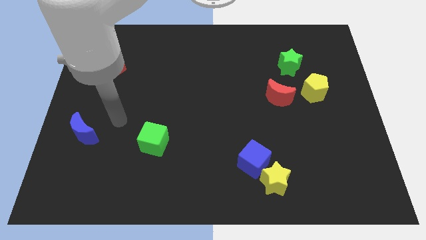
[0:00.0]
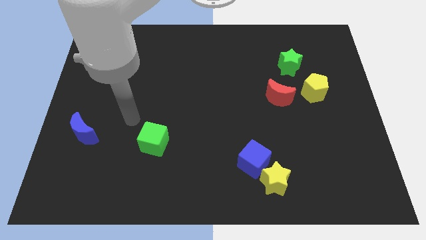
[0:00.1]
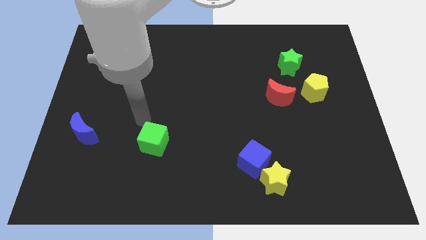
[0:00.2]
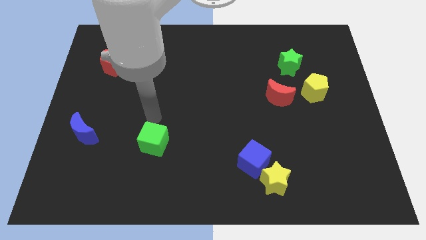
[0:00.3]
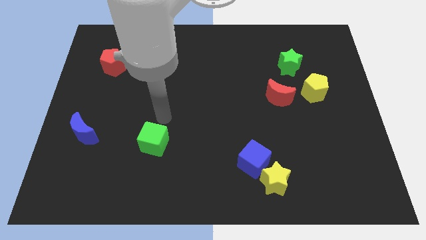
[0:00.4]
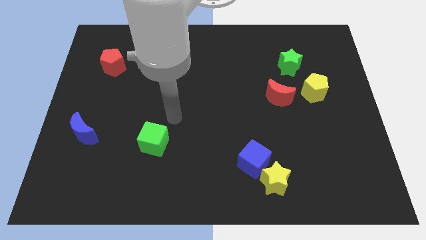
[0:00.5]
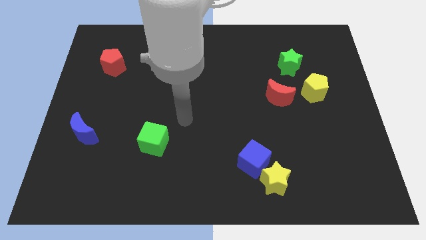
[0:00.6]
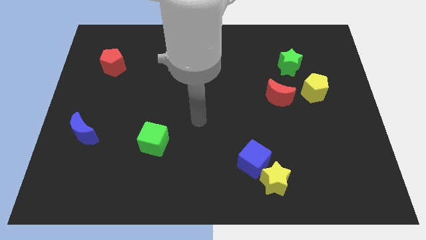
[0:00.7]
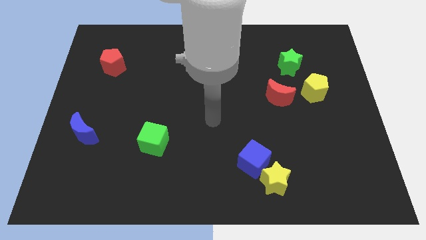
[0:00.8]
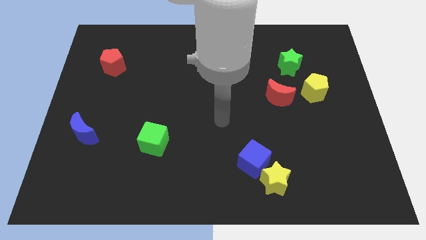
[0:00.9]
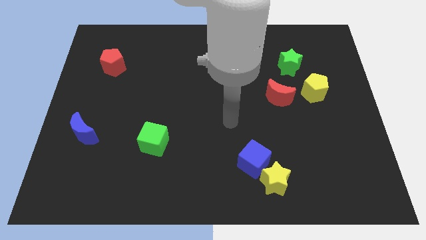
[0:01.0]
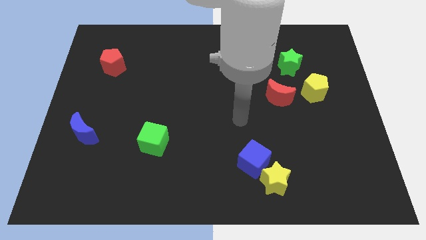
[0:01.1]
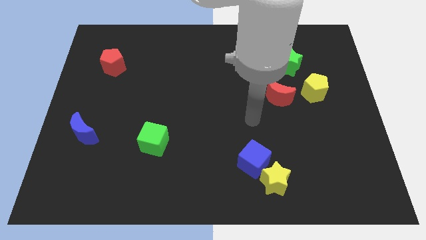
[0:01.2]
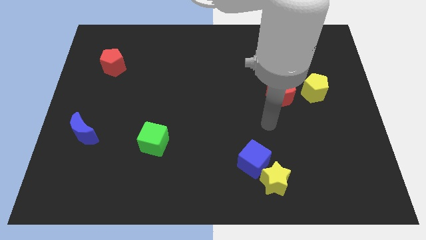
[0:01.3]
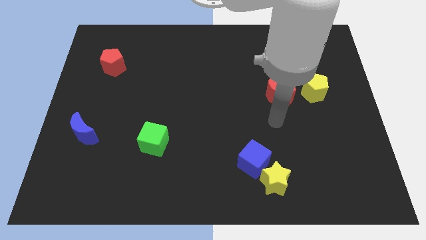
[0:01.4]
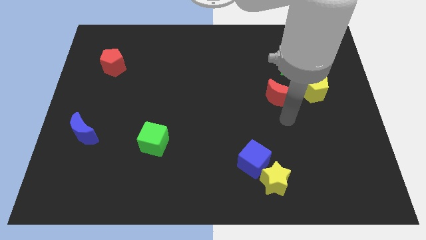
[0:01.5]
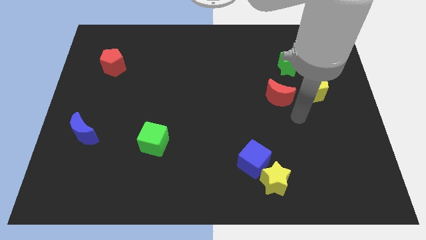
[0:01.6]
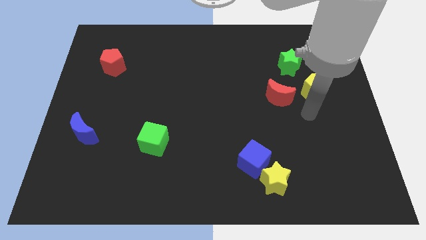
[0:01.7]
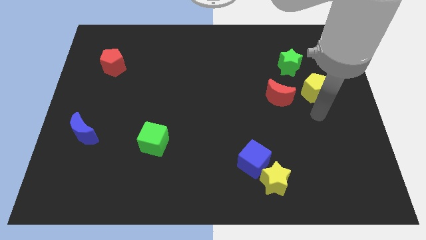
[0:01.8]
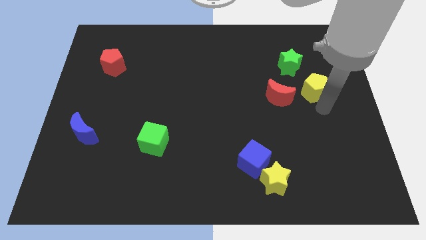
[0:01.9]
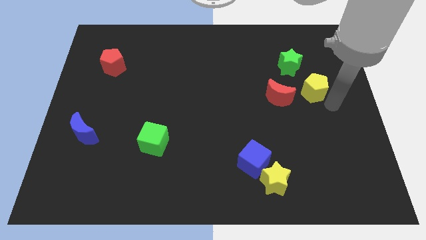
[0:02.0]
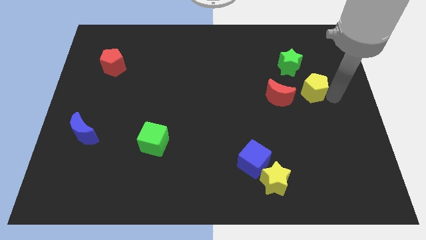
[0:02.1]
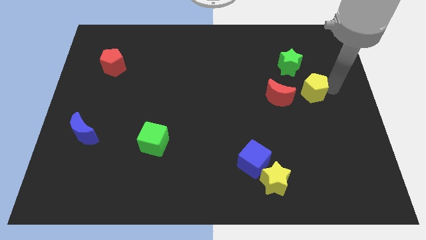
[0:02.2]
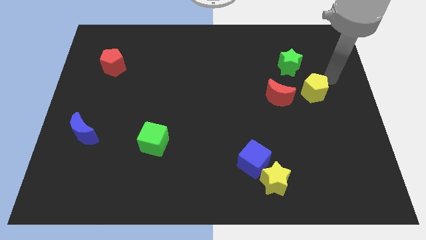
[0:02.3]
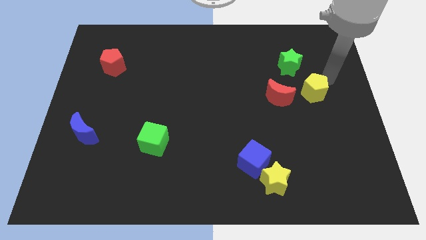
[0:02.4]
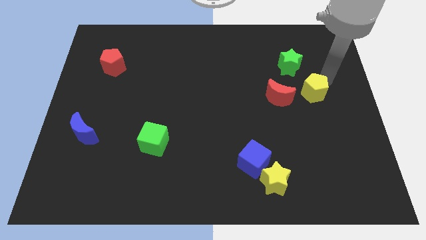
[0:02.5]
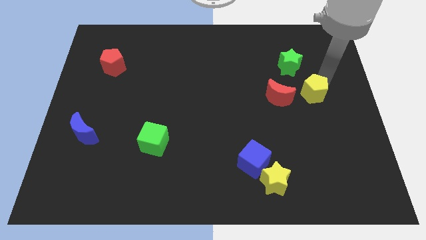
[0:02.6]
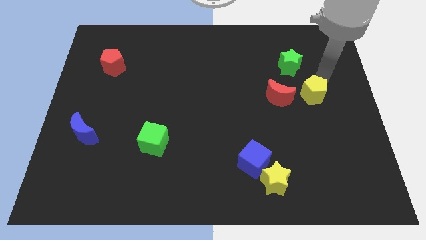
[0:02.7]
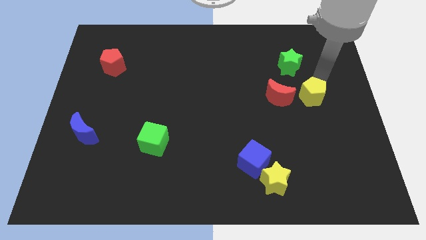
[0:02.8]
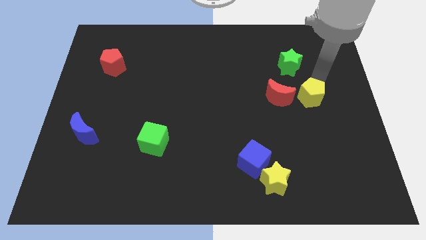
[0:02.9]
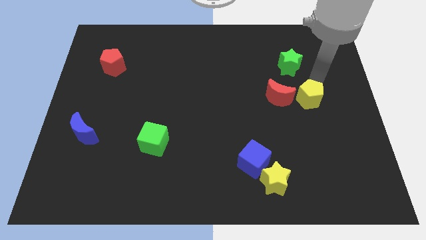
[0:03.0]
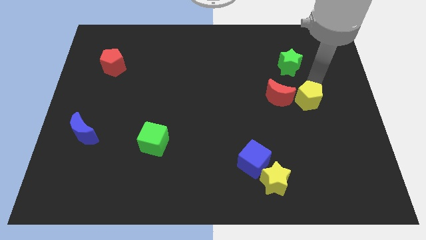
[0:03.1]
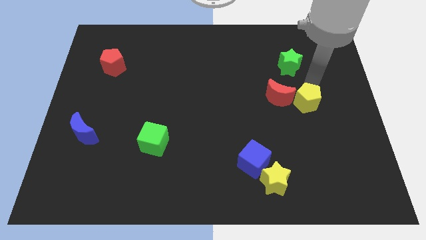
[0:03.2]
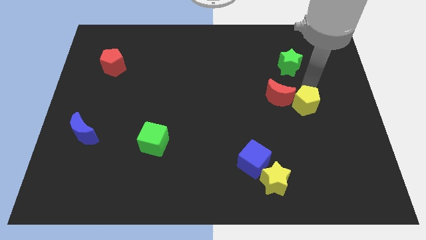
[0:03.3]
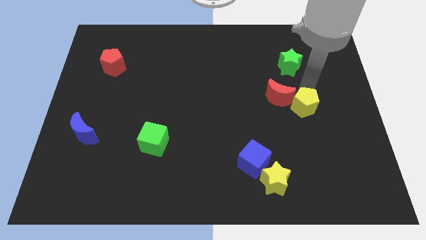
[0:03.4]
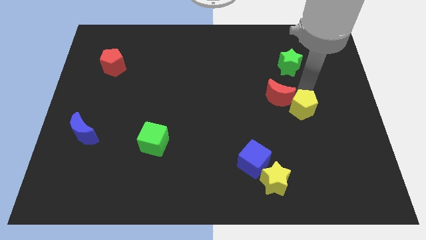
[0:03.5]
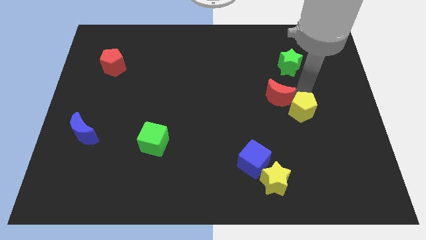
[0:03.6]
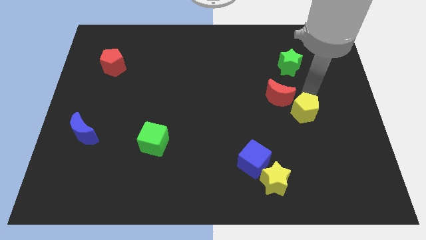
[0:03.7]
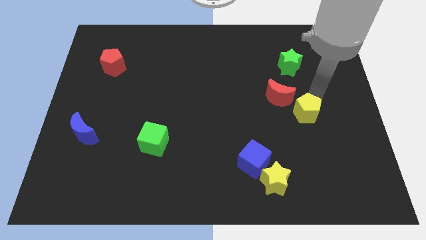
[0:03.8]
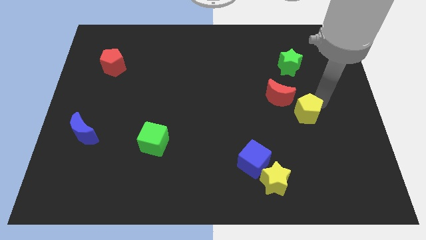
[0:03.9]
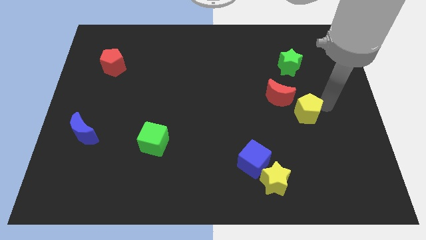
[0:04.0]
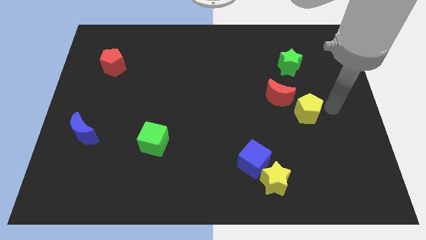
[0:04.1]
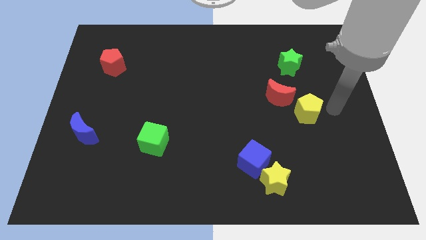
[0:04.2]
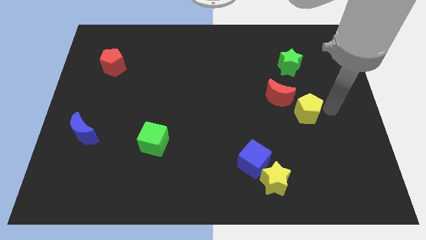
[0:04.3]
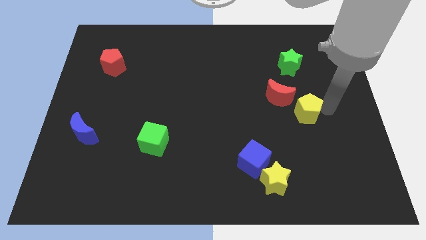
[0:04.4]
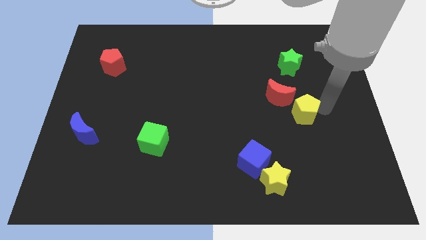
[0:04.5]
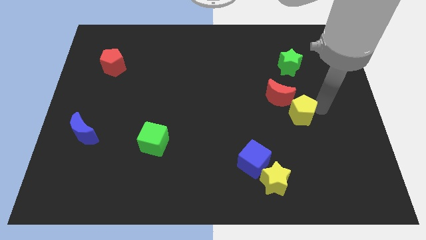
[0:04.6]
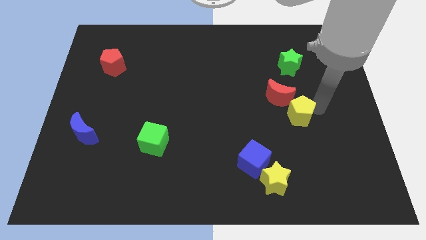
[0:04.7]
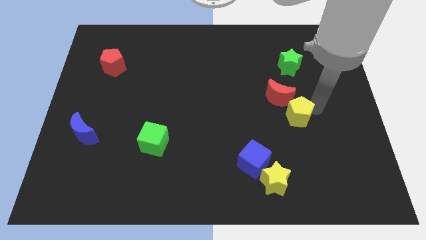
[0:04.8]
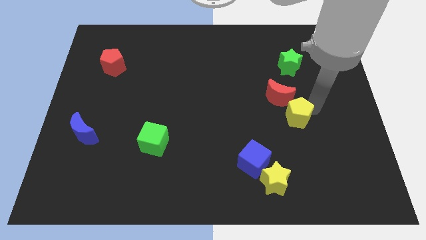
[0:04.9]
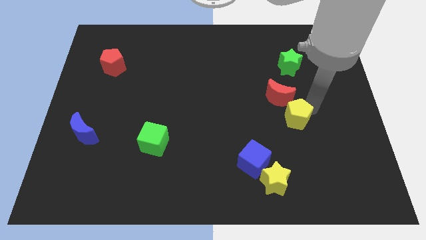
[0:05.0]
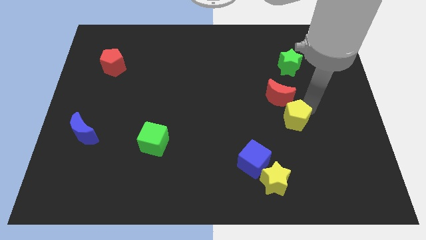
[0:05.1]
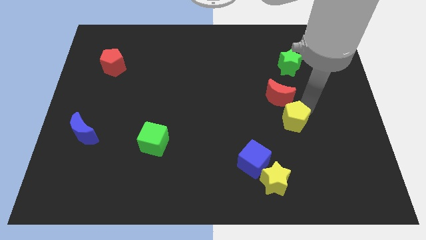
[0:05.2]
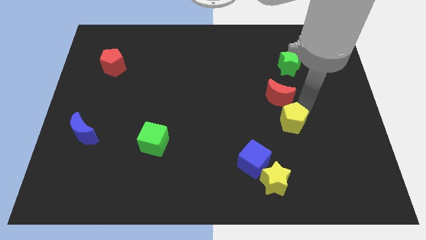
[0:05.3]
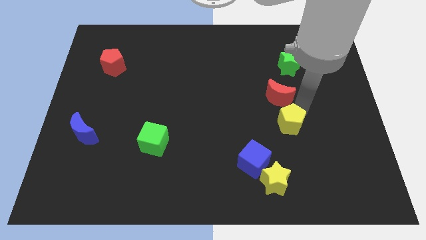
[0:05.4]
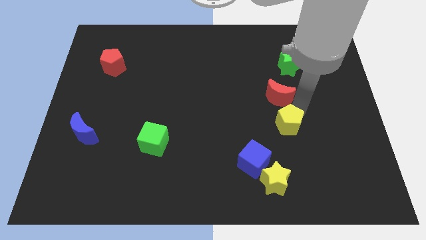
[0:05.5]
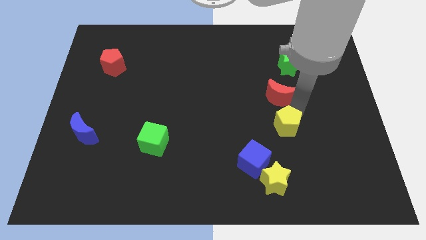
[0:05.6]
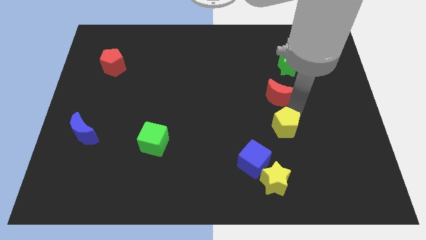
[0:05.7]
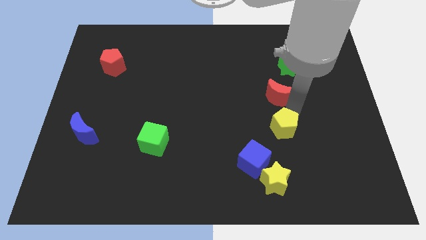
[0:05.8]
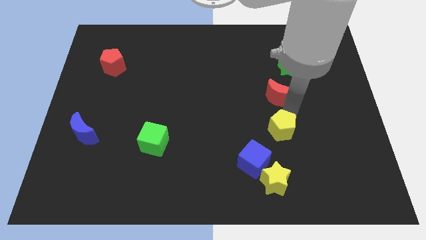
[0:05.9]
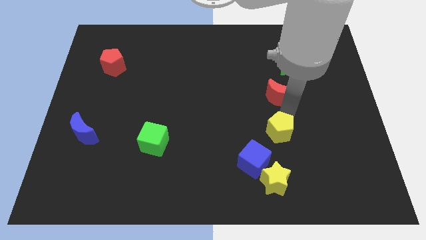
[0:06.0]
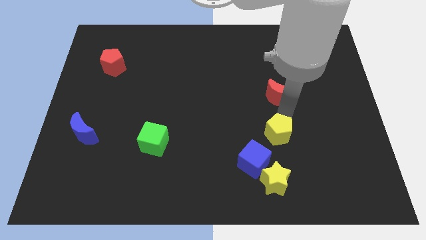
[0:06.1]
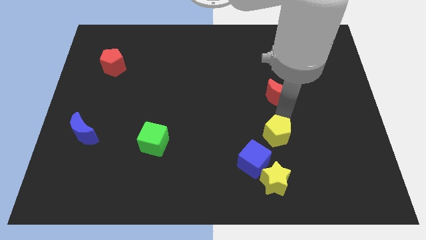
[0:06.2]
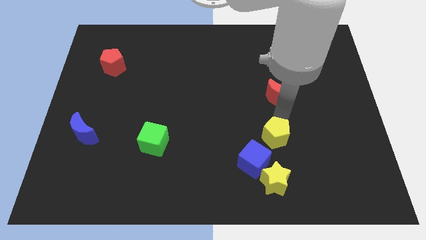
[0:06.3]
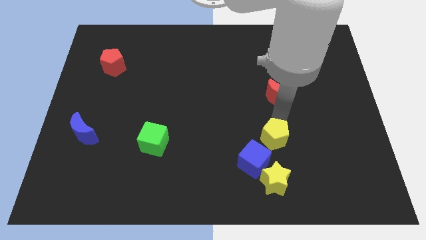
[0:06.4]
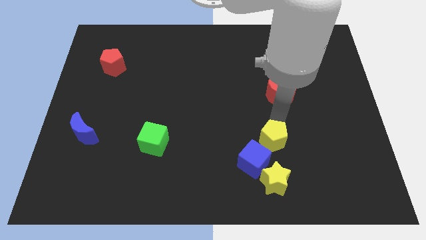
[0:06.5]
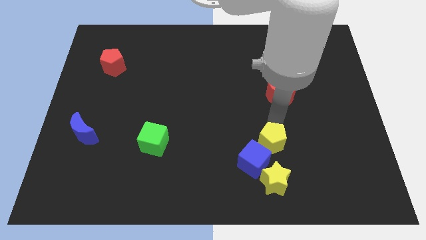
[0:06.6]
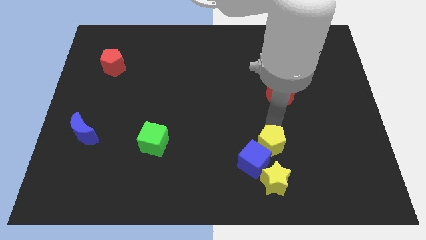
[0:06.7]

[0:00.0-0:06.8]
push the yellow pentagon next to the blue cube
